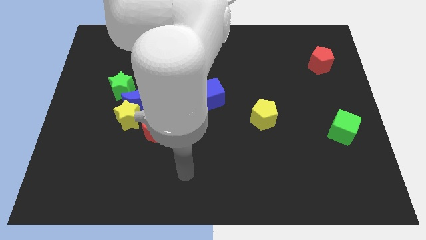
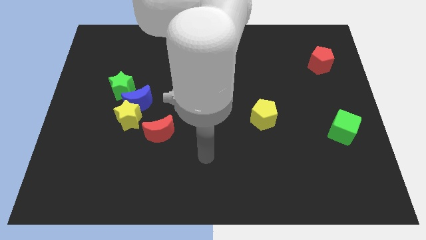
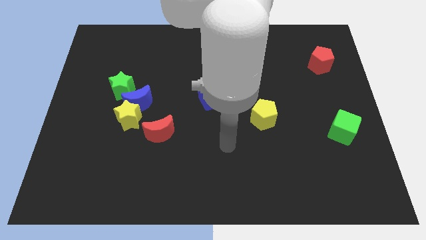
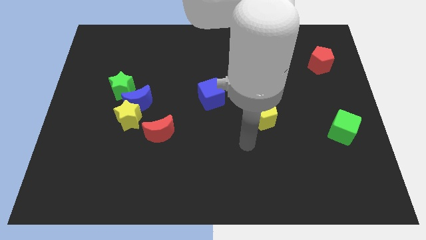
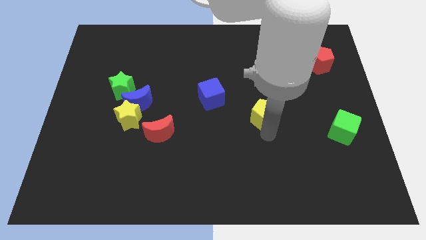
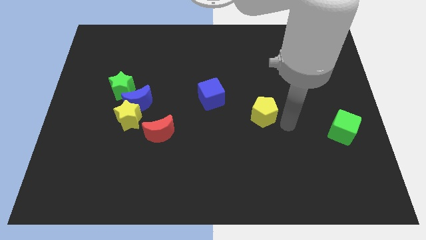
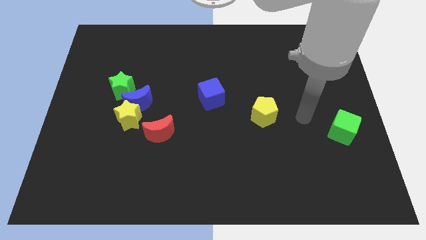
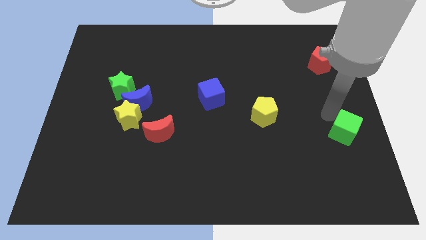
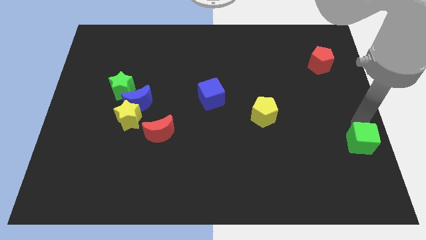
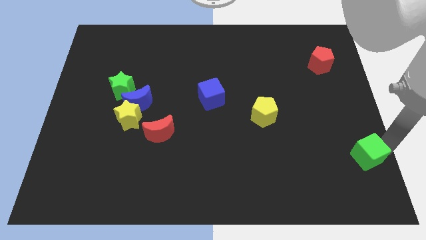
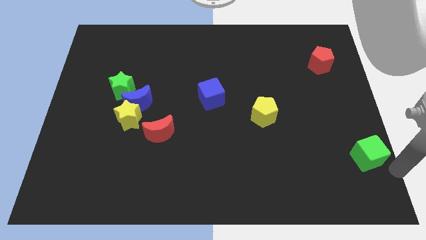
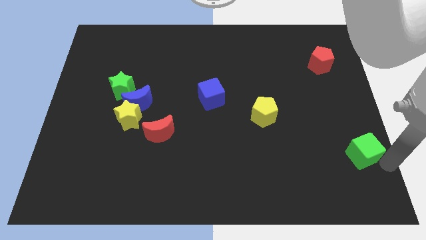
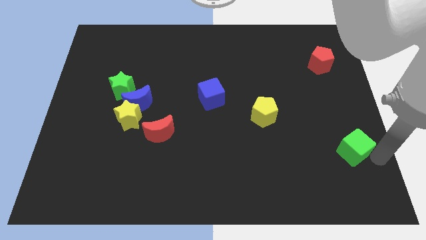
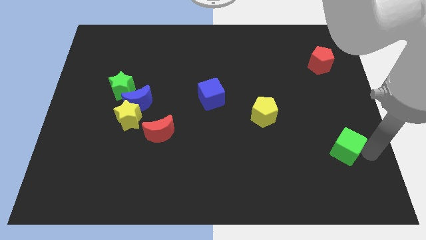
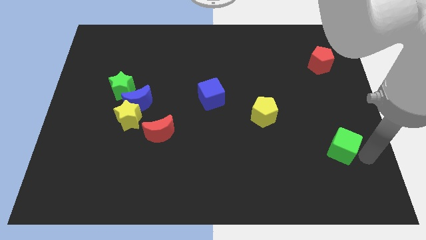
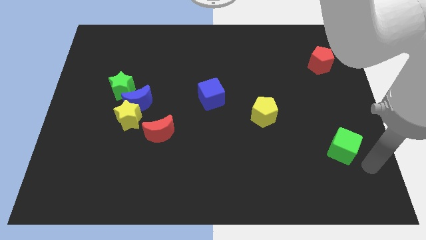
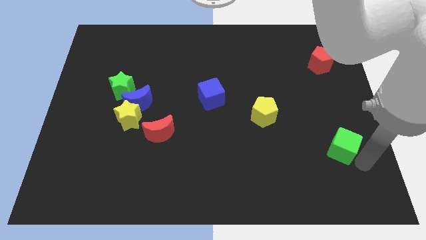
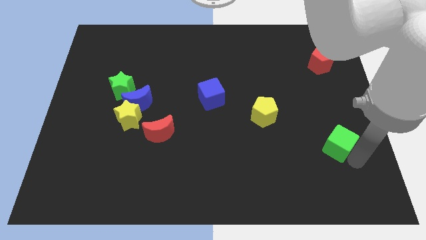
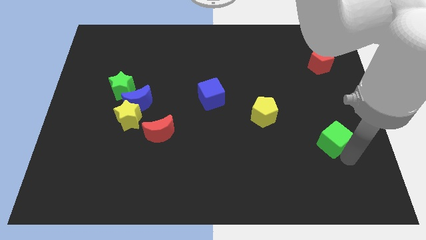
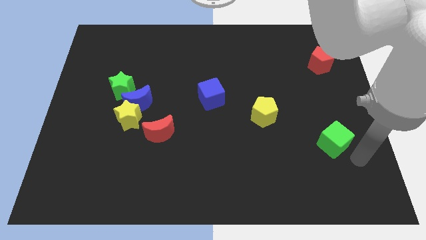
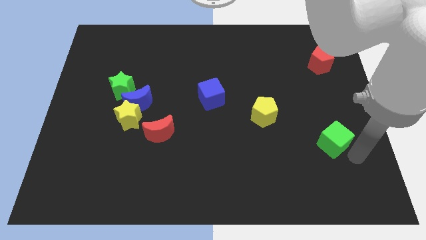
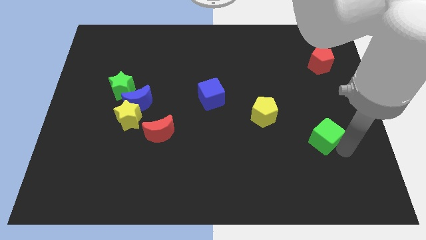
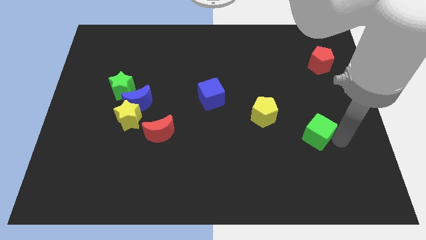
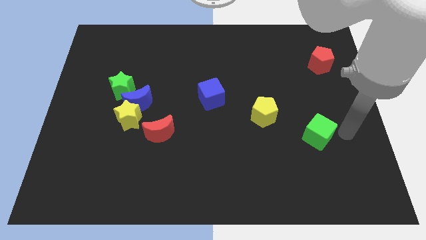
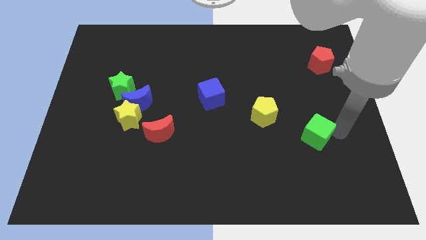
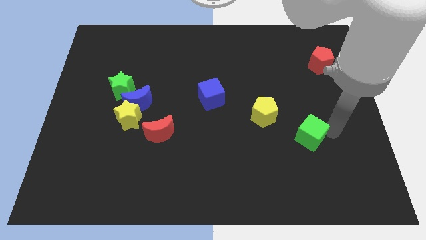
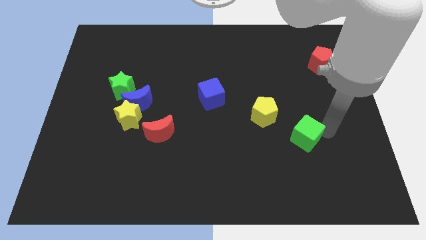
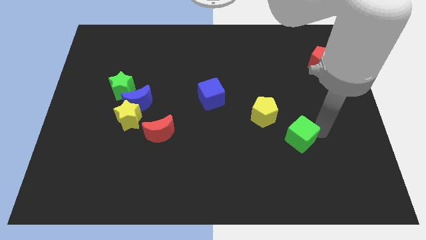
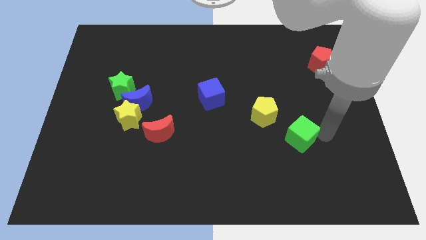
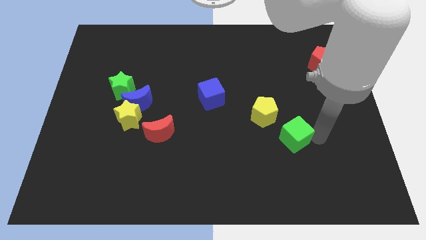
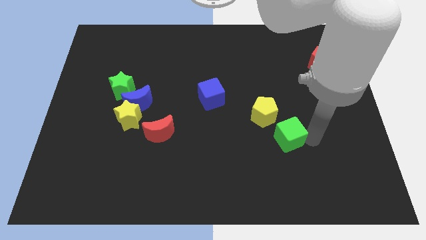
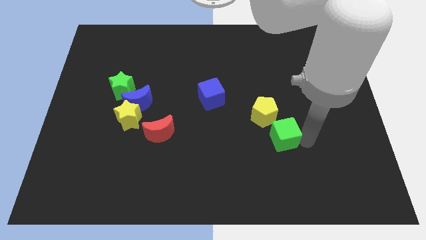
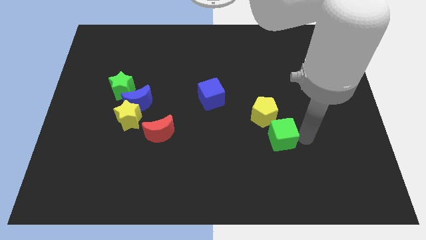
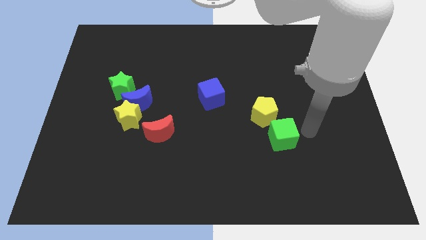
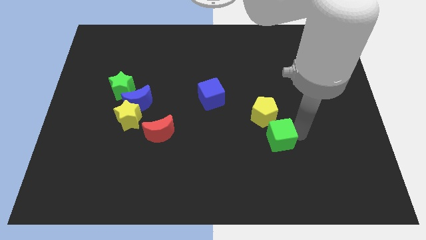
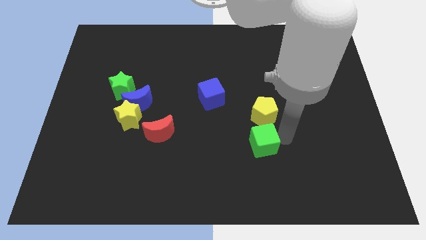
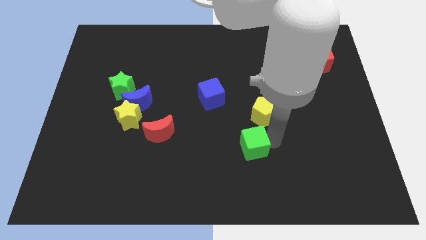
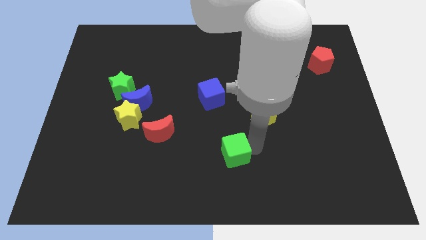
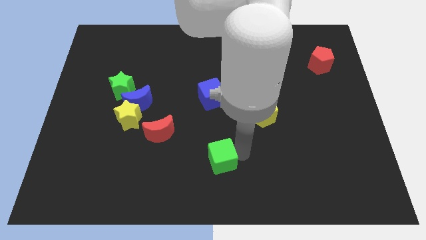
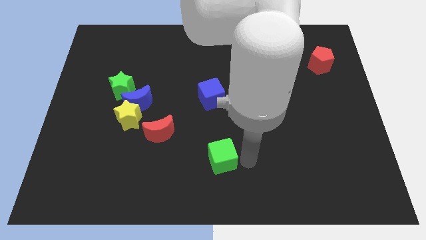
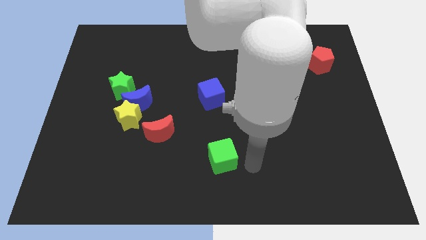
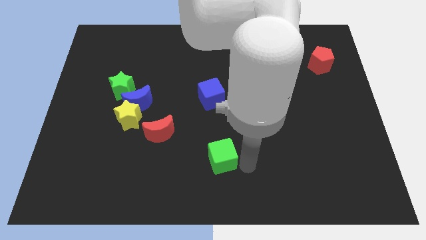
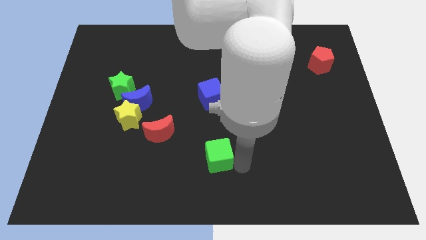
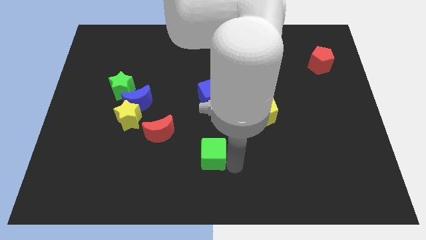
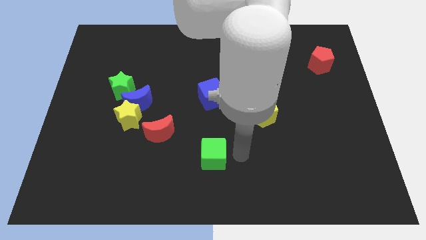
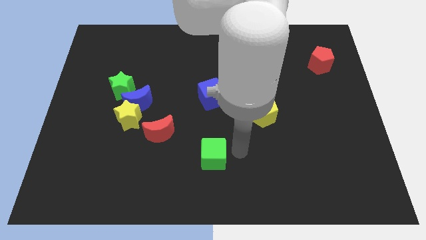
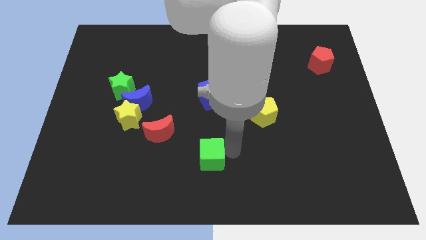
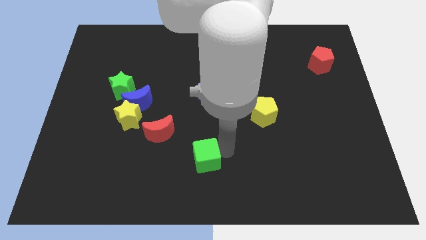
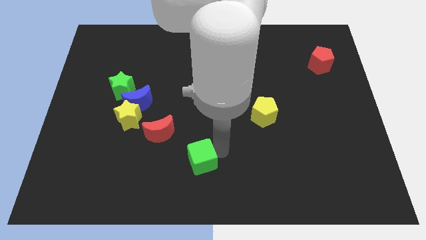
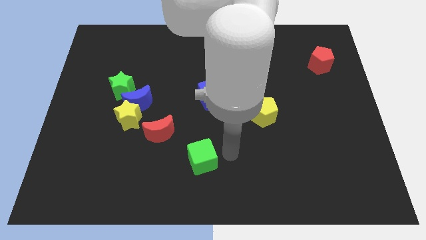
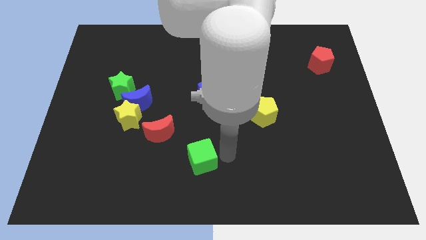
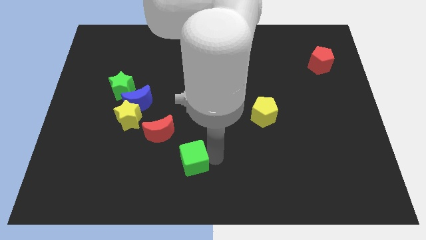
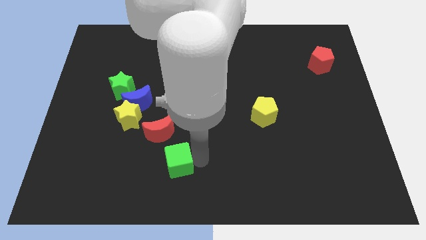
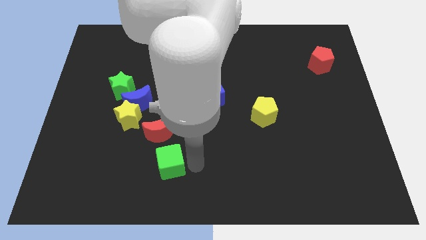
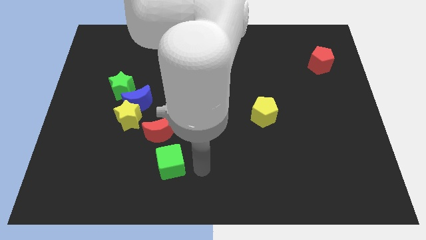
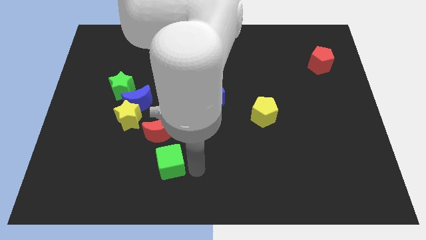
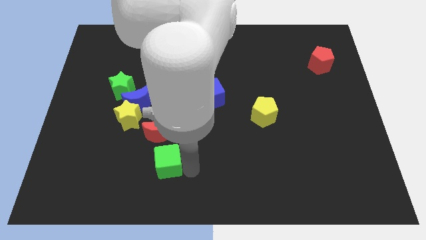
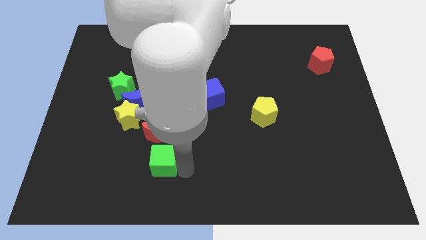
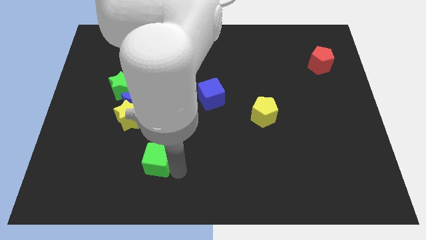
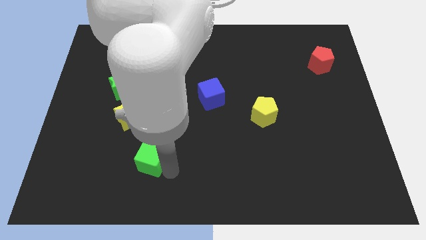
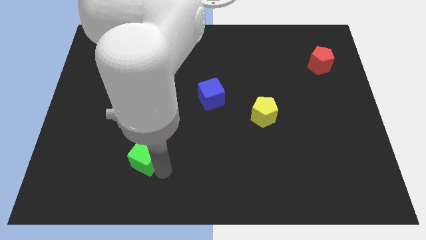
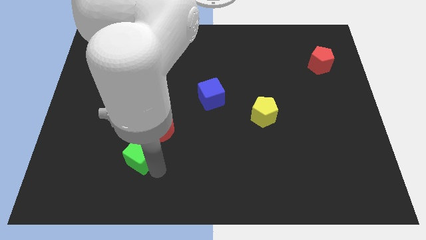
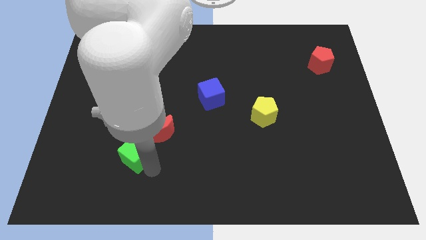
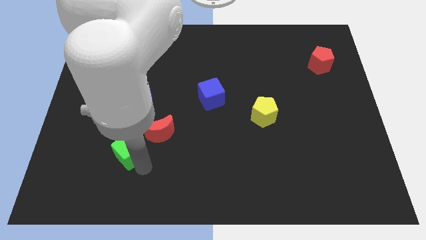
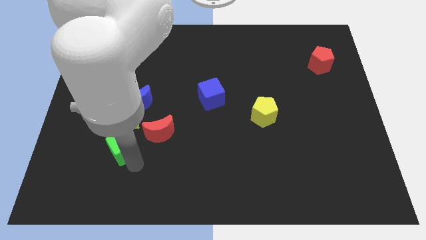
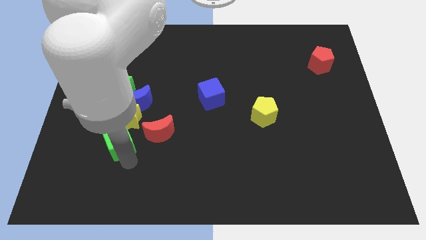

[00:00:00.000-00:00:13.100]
slide the green cube to the bottom side of the green star
